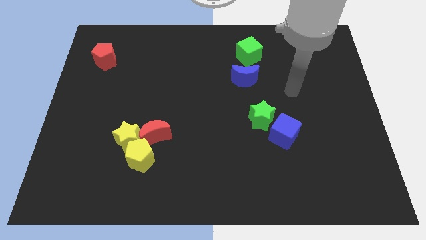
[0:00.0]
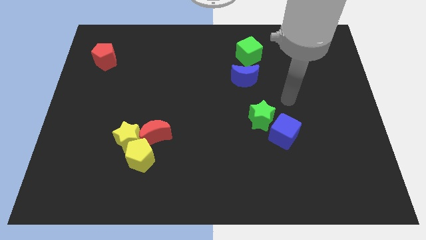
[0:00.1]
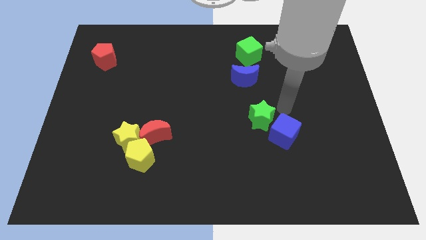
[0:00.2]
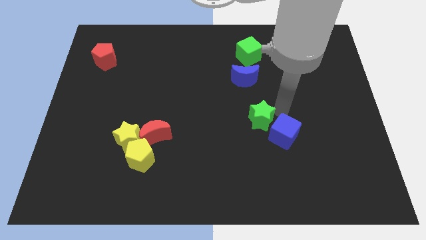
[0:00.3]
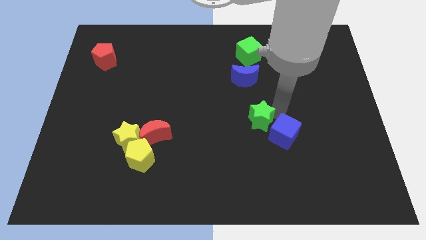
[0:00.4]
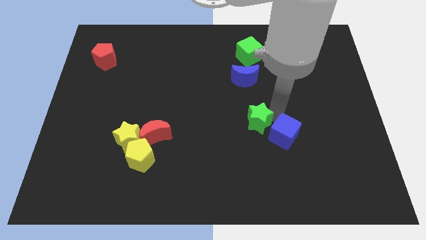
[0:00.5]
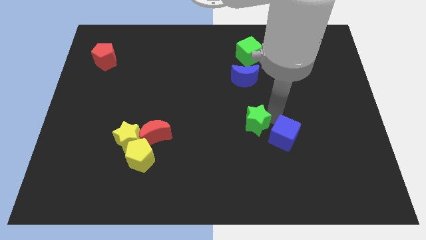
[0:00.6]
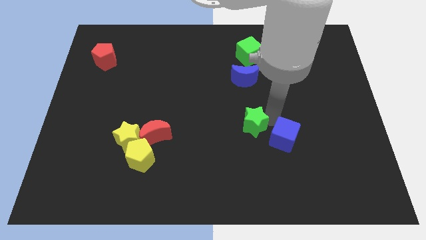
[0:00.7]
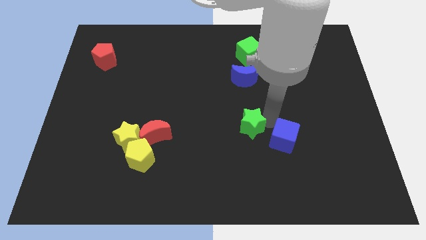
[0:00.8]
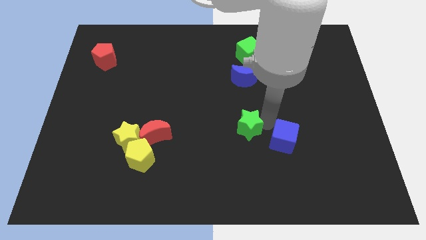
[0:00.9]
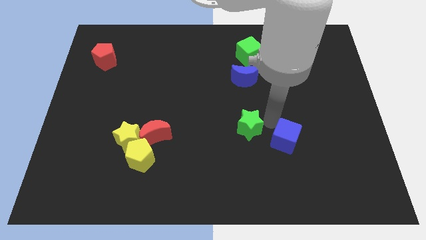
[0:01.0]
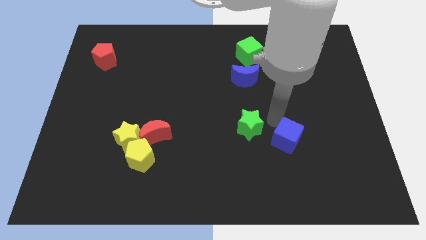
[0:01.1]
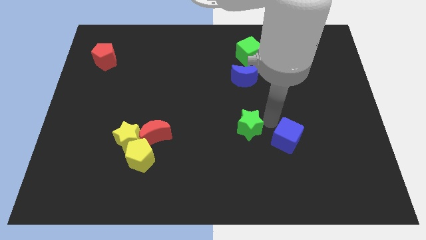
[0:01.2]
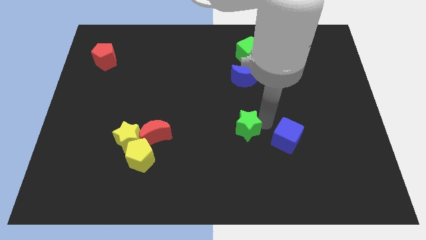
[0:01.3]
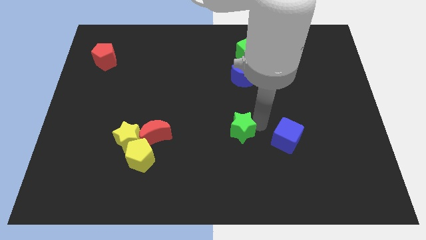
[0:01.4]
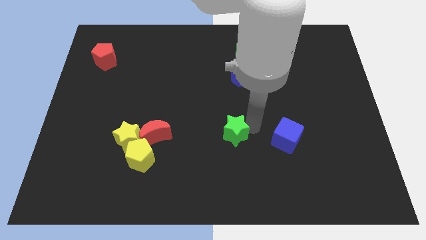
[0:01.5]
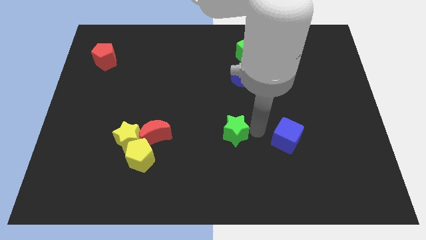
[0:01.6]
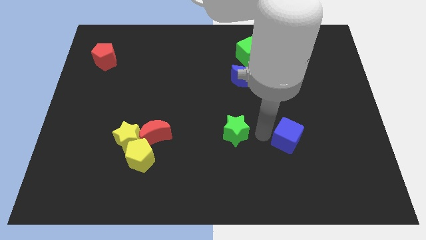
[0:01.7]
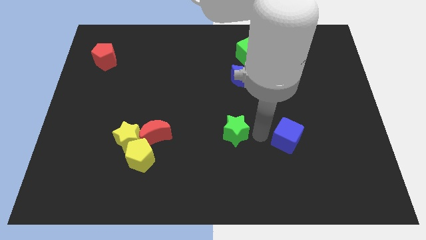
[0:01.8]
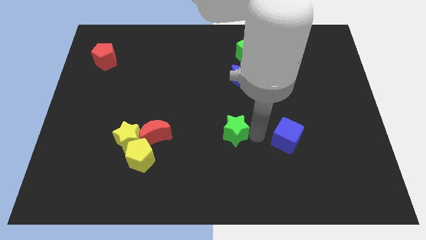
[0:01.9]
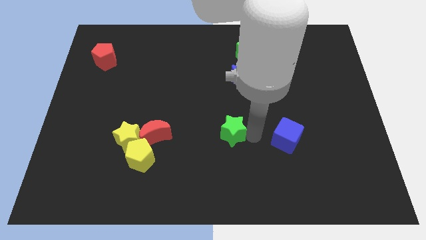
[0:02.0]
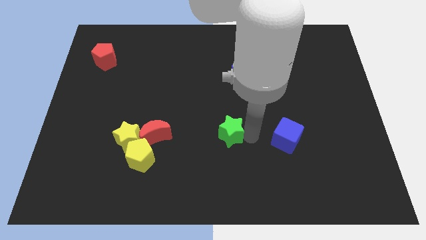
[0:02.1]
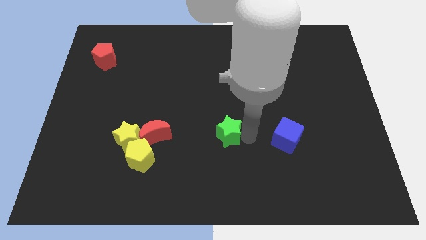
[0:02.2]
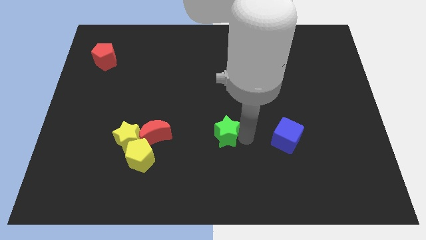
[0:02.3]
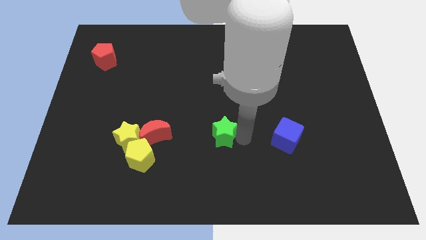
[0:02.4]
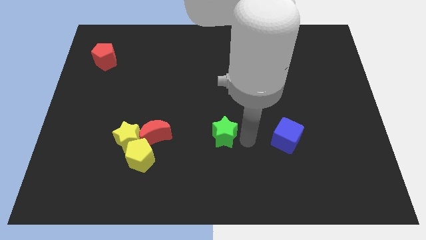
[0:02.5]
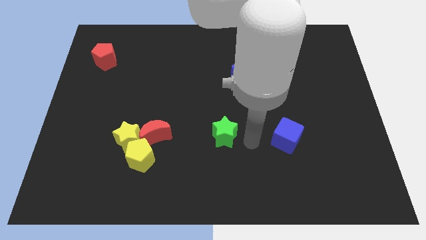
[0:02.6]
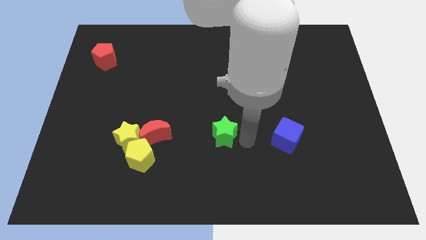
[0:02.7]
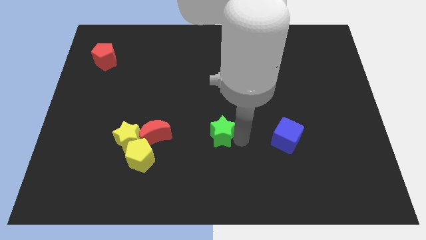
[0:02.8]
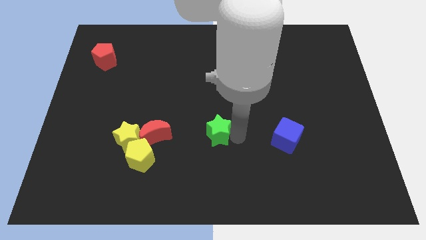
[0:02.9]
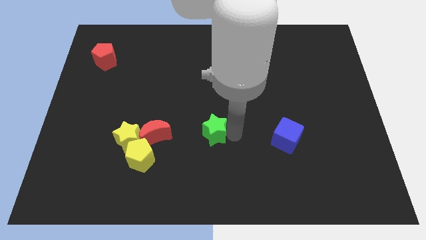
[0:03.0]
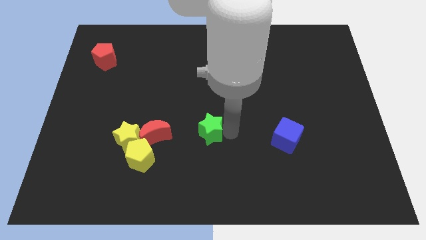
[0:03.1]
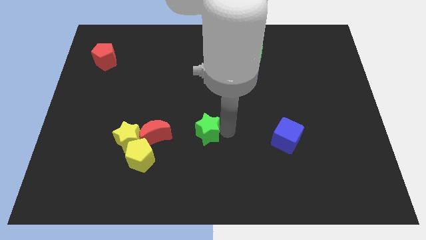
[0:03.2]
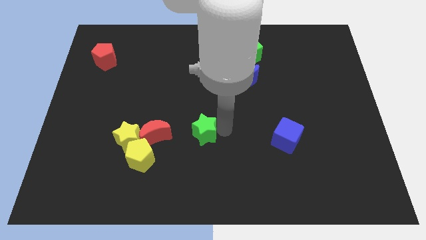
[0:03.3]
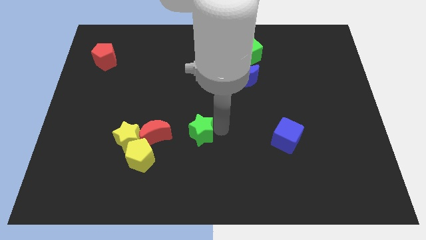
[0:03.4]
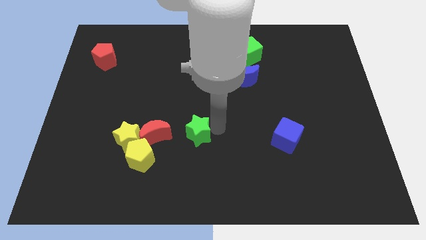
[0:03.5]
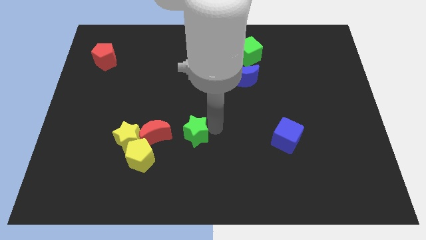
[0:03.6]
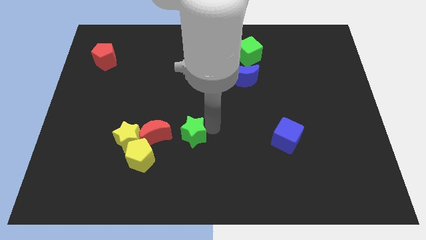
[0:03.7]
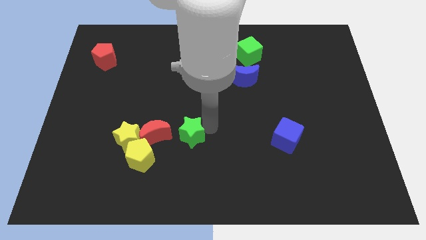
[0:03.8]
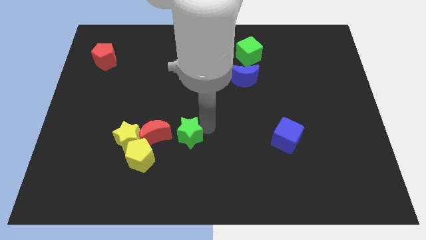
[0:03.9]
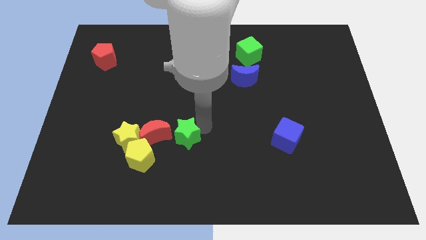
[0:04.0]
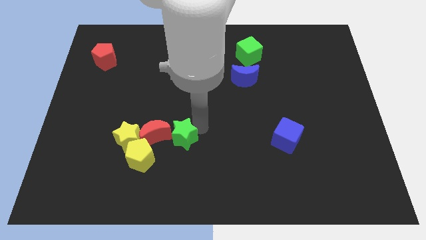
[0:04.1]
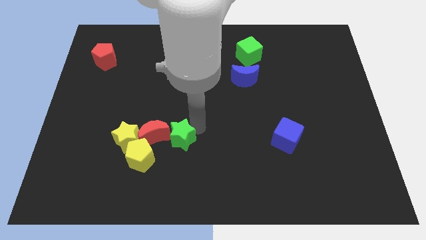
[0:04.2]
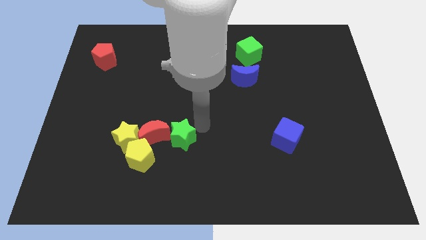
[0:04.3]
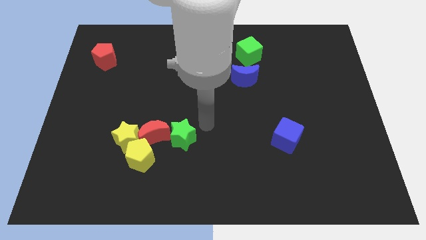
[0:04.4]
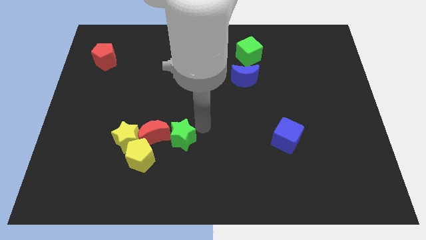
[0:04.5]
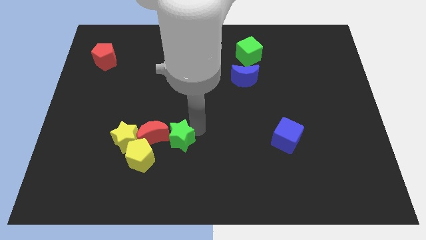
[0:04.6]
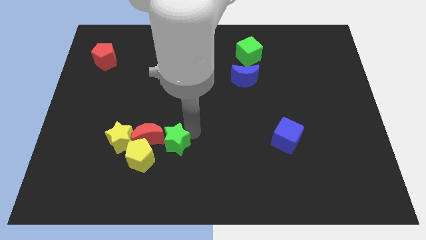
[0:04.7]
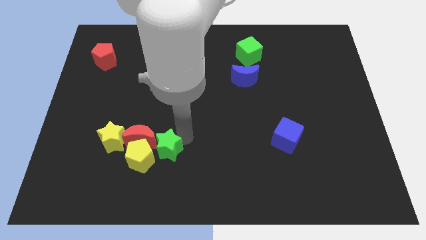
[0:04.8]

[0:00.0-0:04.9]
put the green star to the yellow pentagon

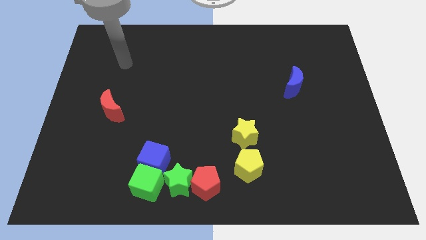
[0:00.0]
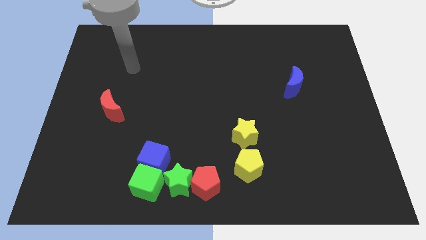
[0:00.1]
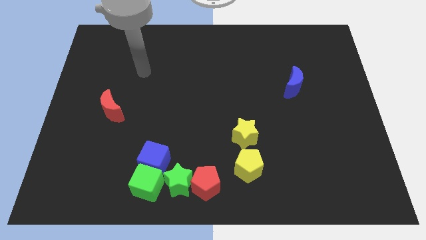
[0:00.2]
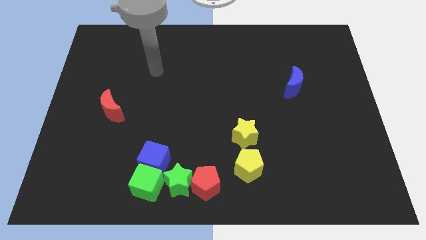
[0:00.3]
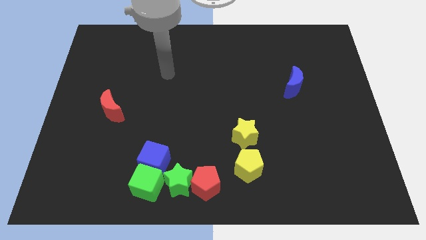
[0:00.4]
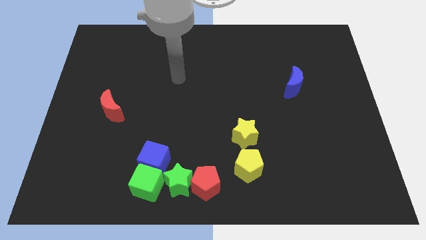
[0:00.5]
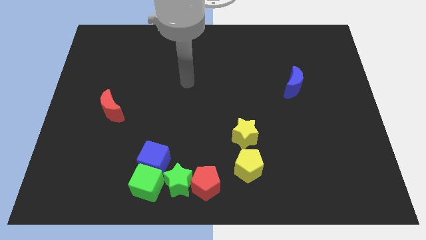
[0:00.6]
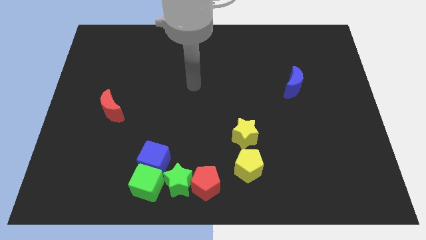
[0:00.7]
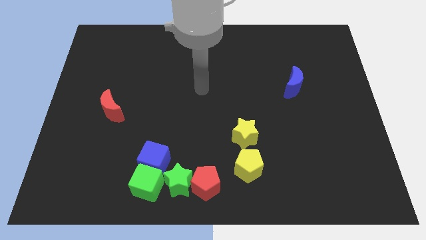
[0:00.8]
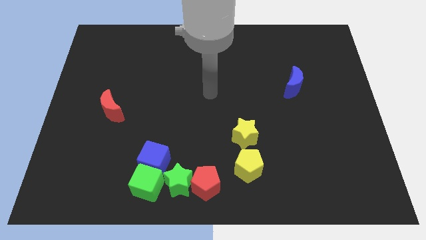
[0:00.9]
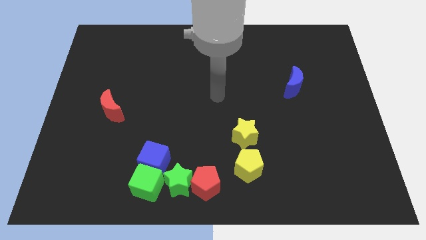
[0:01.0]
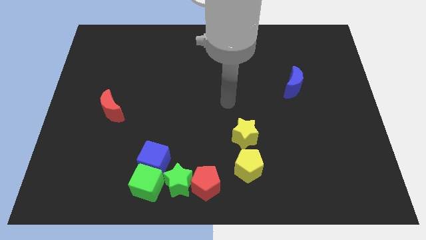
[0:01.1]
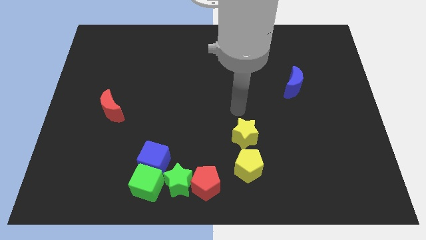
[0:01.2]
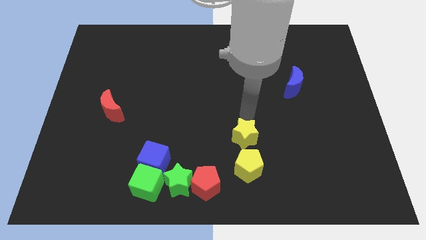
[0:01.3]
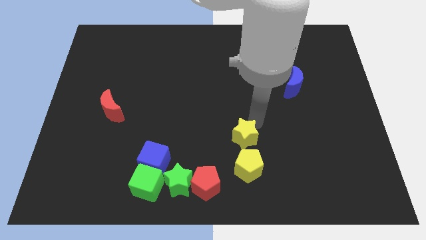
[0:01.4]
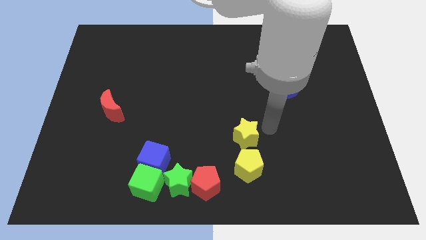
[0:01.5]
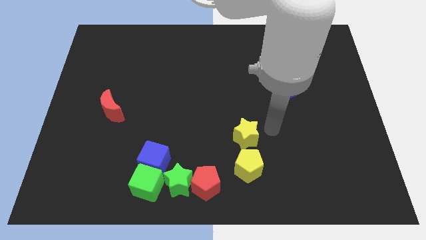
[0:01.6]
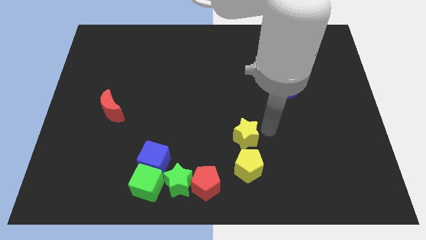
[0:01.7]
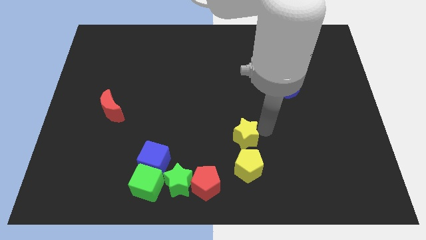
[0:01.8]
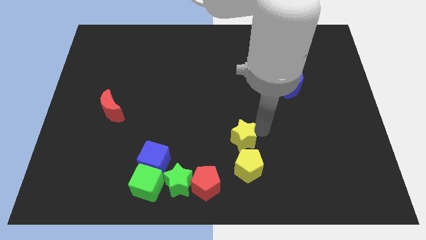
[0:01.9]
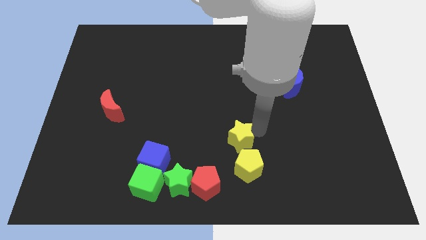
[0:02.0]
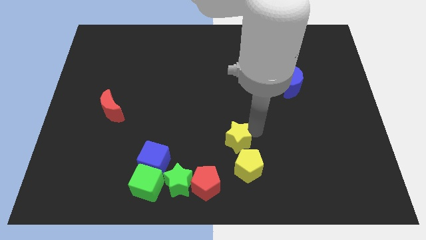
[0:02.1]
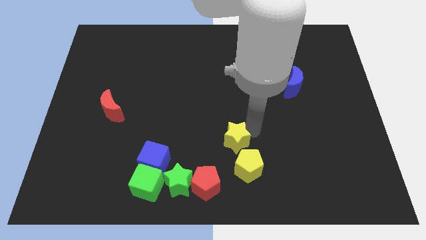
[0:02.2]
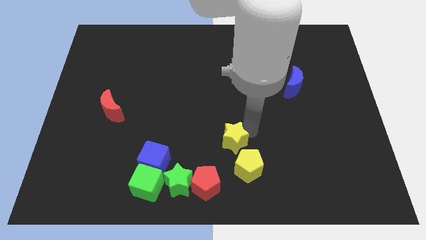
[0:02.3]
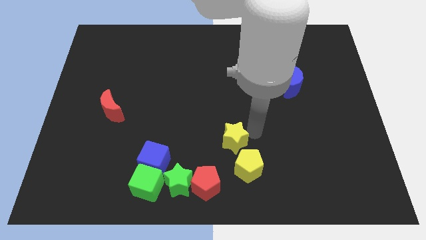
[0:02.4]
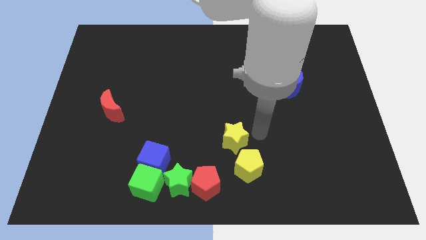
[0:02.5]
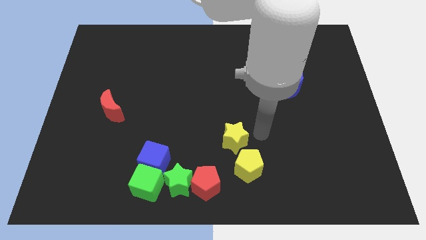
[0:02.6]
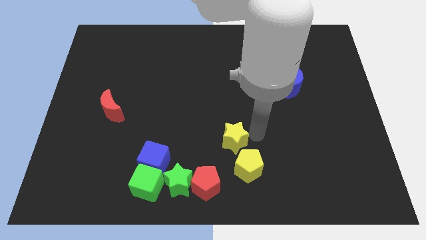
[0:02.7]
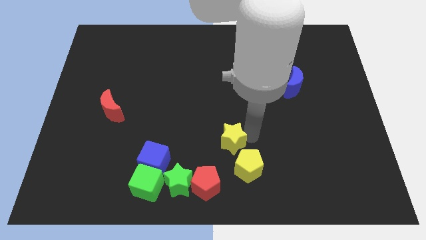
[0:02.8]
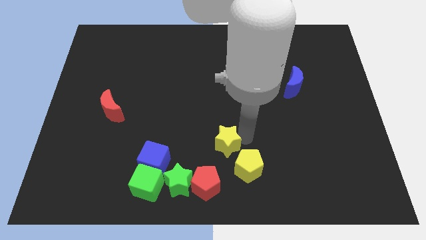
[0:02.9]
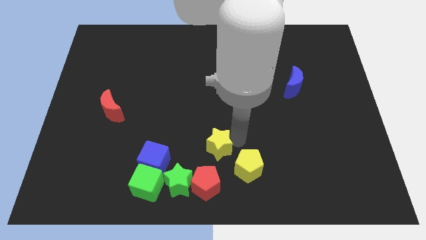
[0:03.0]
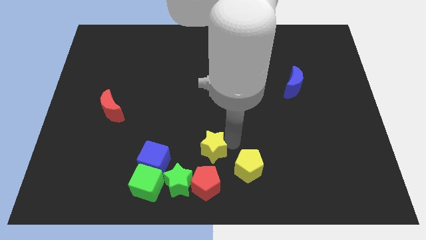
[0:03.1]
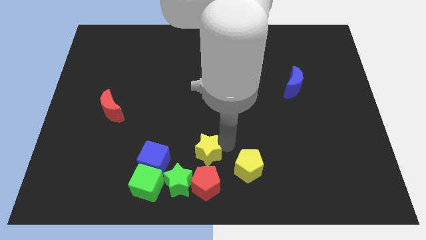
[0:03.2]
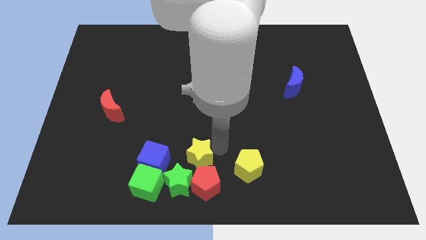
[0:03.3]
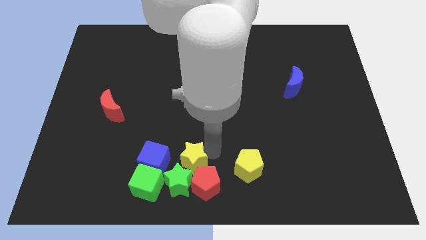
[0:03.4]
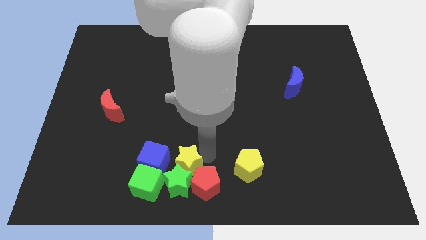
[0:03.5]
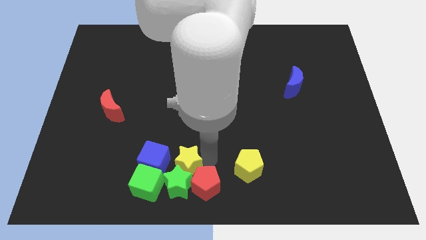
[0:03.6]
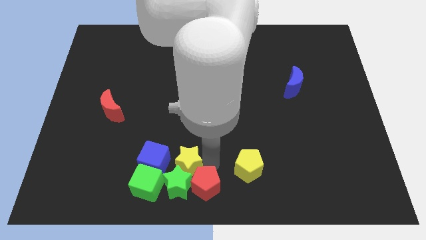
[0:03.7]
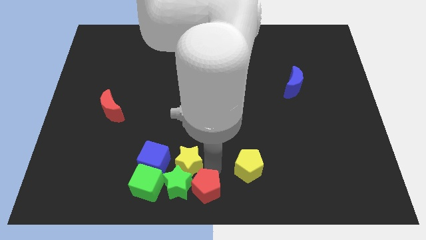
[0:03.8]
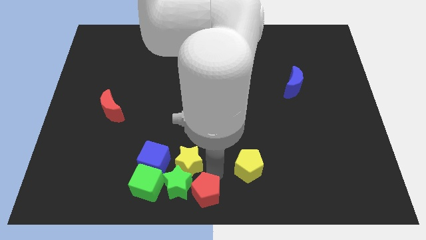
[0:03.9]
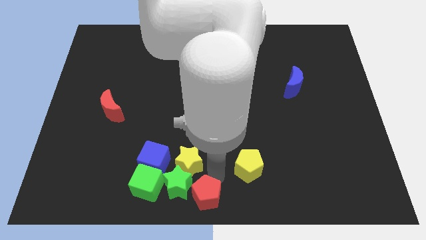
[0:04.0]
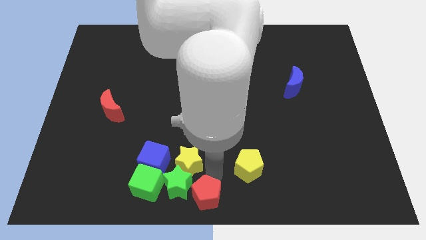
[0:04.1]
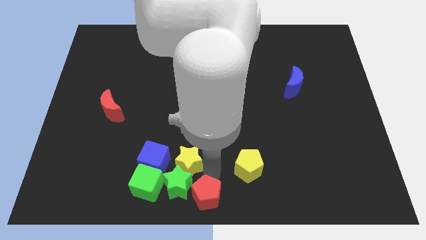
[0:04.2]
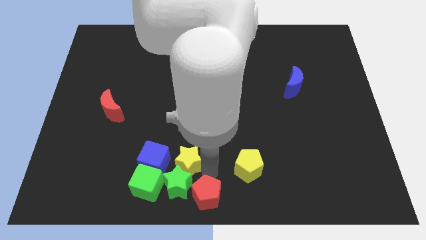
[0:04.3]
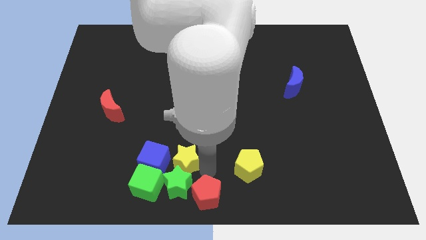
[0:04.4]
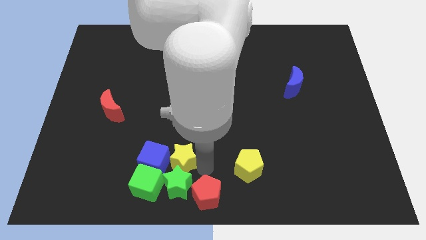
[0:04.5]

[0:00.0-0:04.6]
move the yellow star to the blue cube
